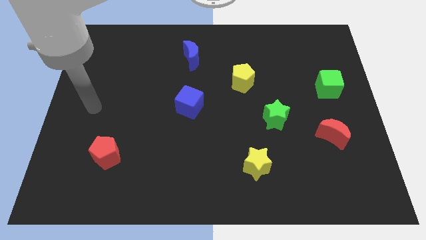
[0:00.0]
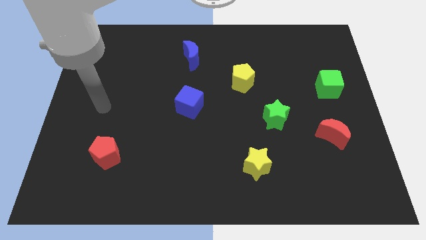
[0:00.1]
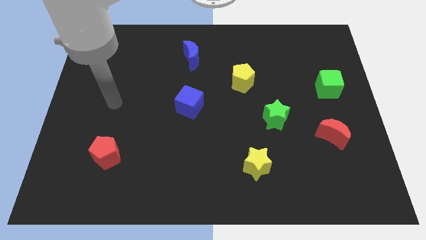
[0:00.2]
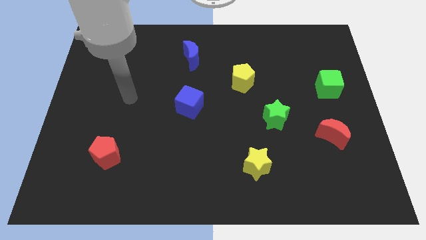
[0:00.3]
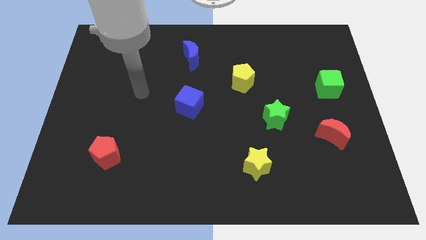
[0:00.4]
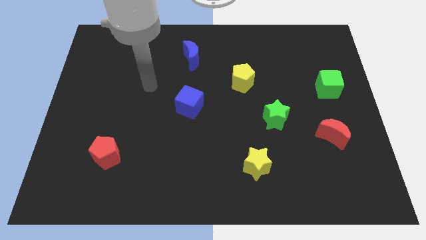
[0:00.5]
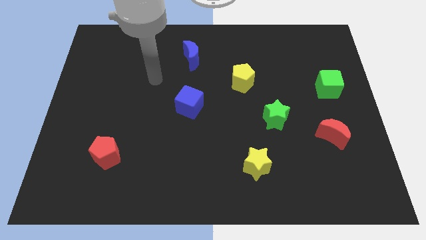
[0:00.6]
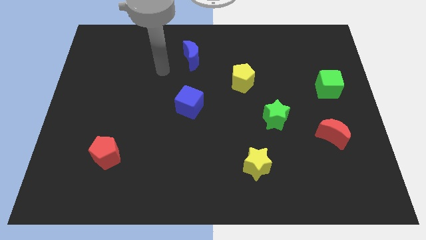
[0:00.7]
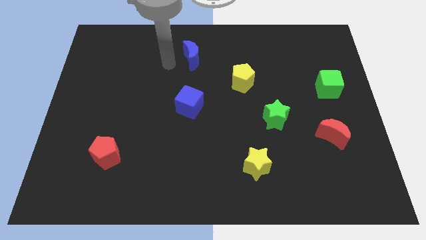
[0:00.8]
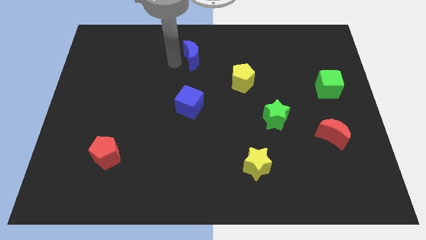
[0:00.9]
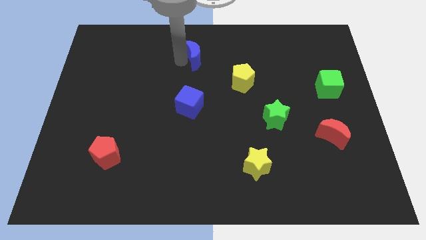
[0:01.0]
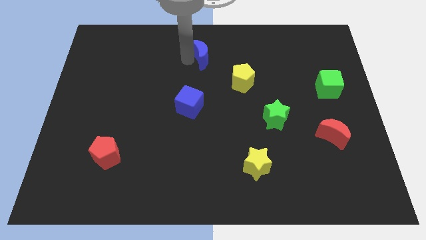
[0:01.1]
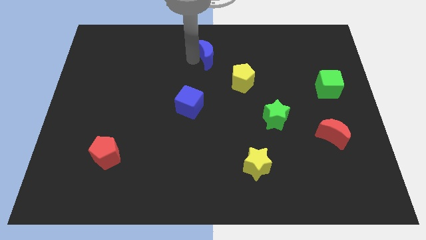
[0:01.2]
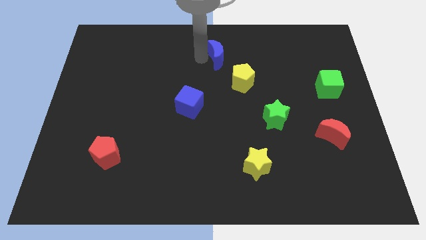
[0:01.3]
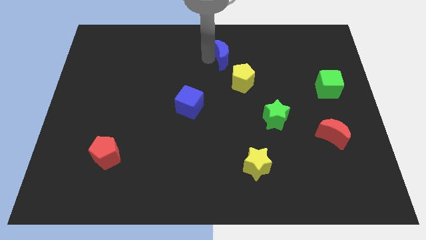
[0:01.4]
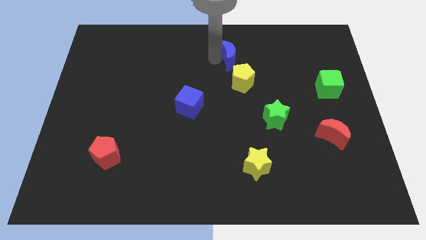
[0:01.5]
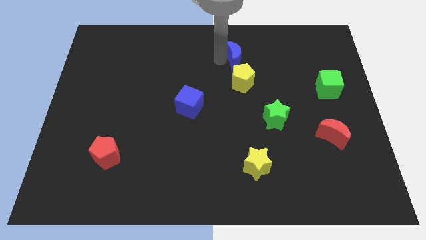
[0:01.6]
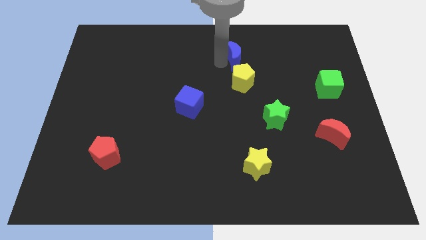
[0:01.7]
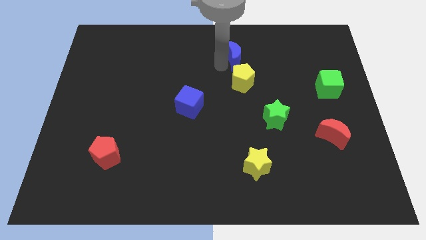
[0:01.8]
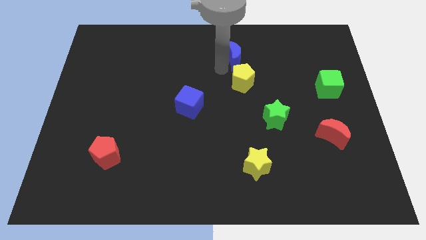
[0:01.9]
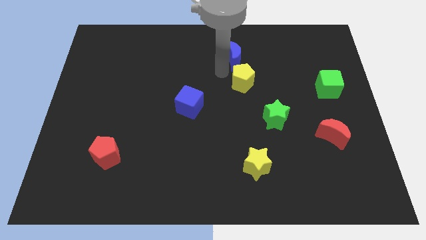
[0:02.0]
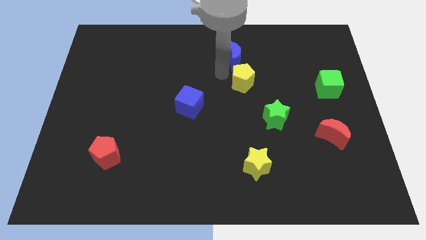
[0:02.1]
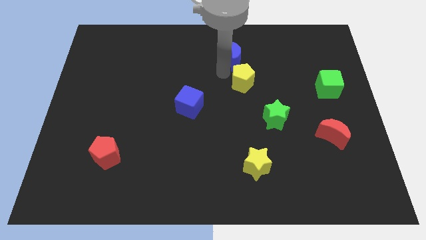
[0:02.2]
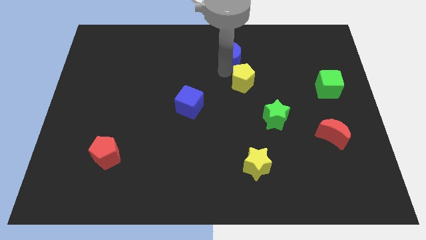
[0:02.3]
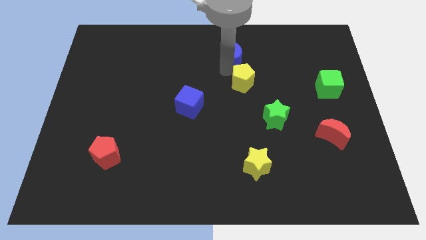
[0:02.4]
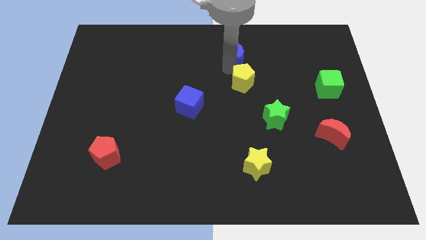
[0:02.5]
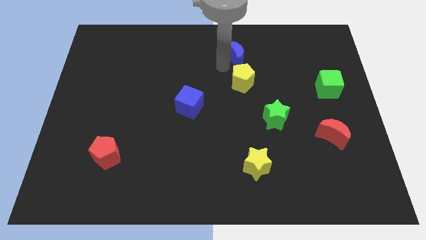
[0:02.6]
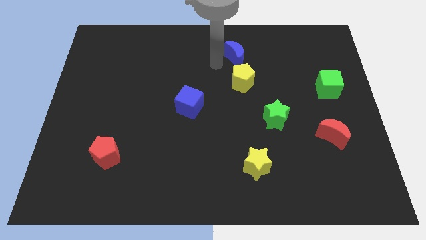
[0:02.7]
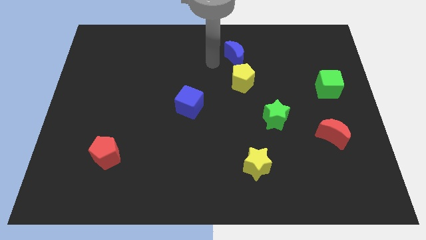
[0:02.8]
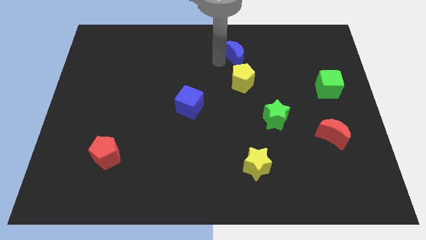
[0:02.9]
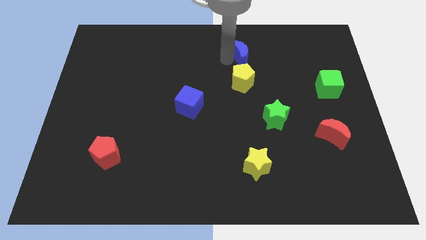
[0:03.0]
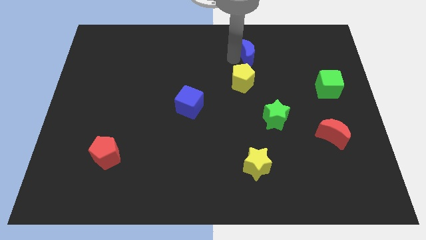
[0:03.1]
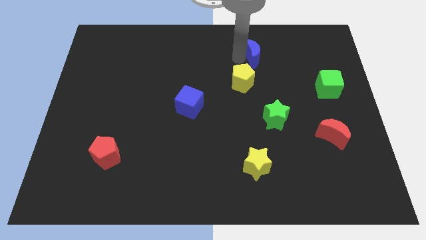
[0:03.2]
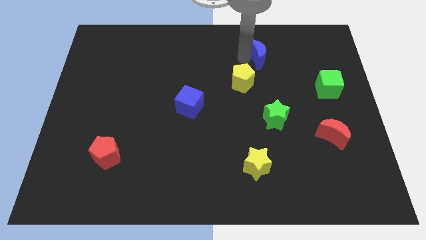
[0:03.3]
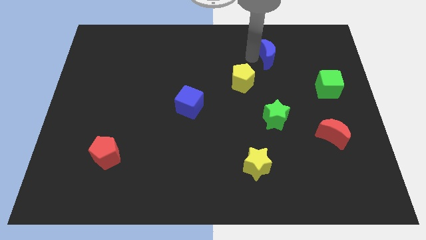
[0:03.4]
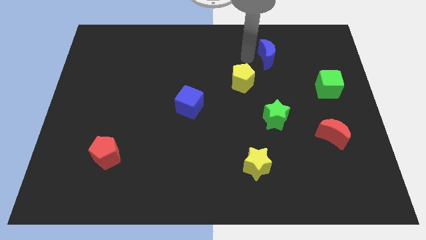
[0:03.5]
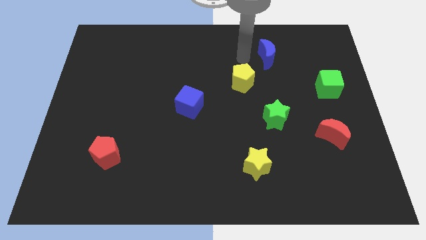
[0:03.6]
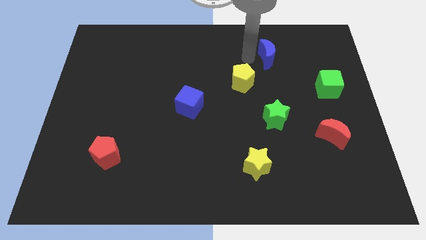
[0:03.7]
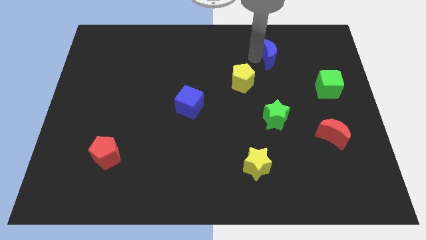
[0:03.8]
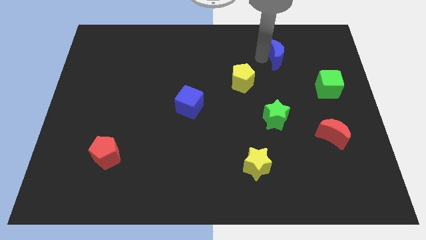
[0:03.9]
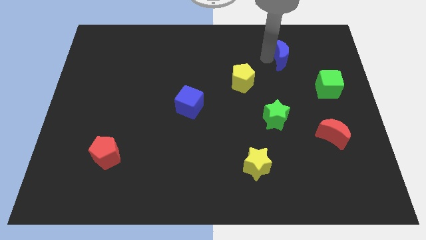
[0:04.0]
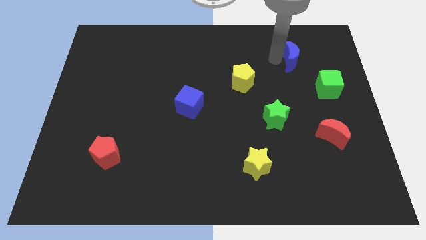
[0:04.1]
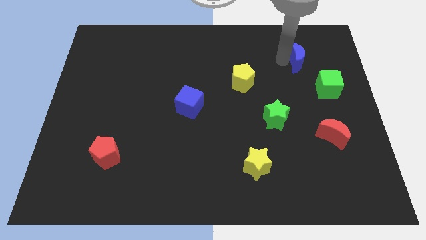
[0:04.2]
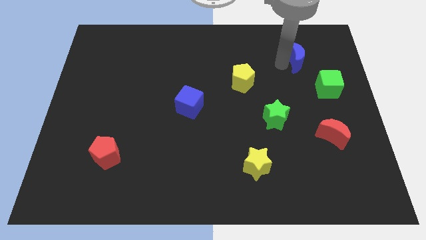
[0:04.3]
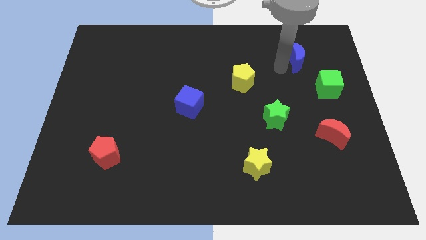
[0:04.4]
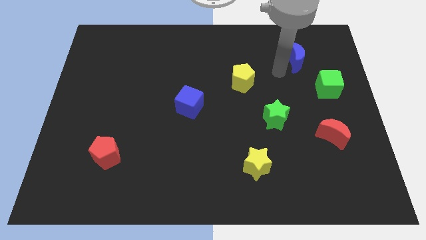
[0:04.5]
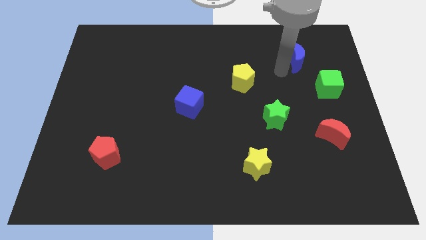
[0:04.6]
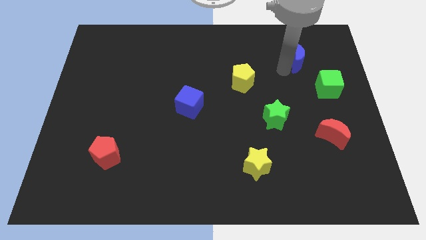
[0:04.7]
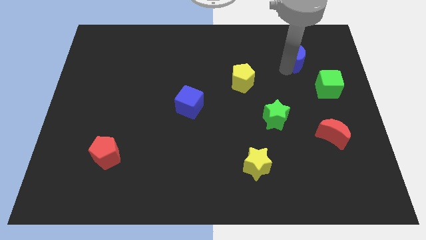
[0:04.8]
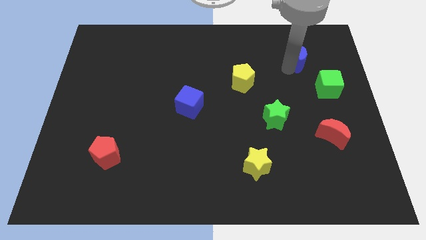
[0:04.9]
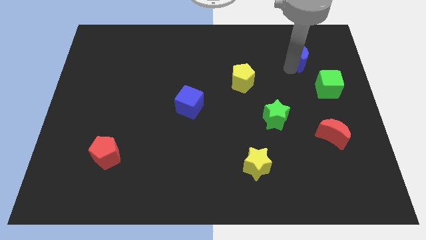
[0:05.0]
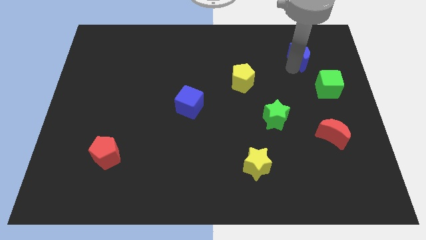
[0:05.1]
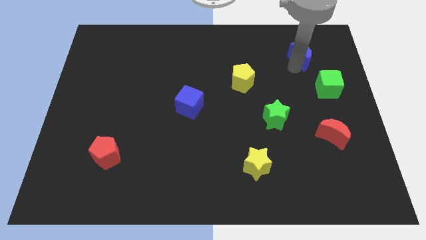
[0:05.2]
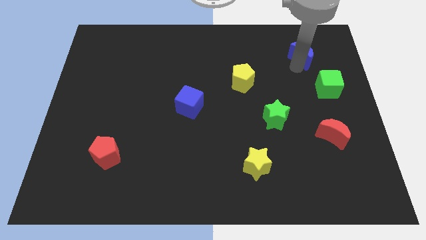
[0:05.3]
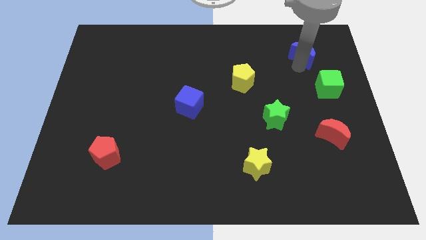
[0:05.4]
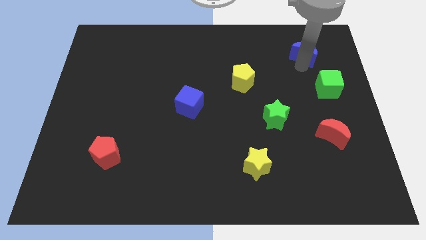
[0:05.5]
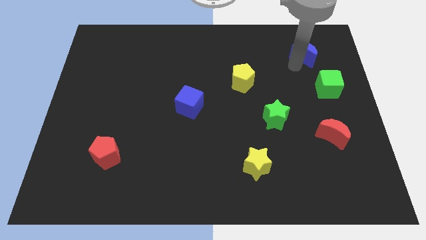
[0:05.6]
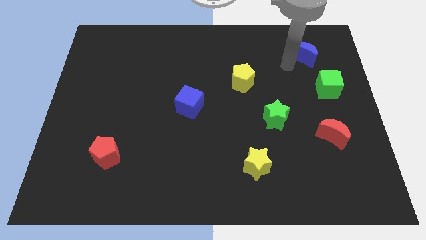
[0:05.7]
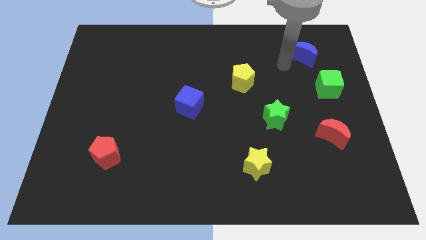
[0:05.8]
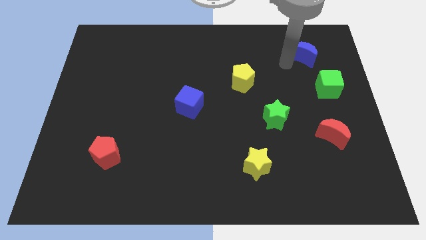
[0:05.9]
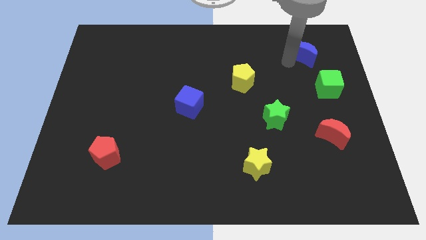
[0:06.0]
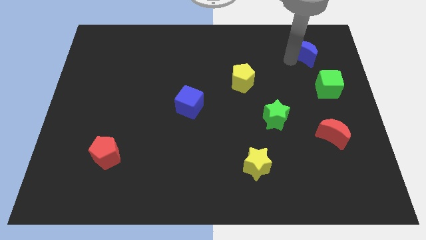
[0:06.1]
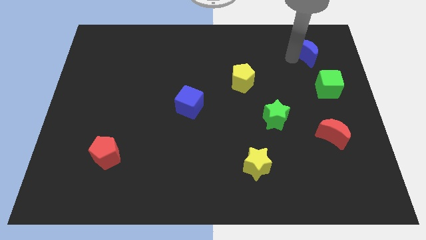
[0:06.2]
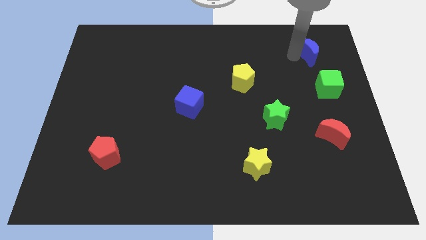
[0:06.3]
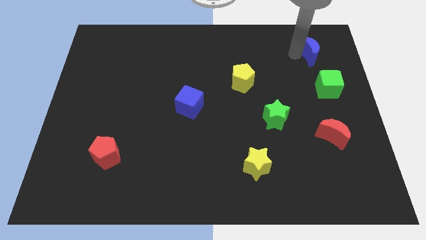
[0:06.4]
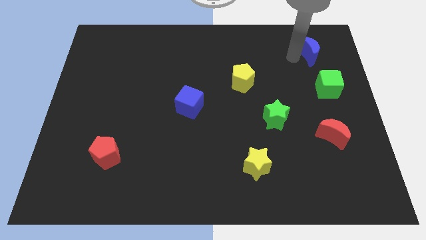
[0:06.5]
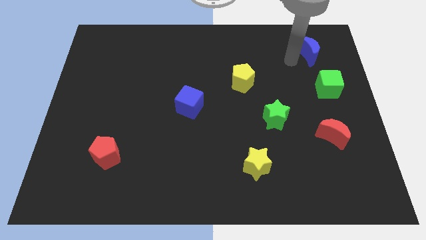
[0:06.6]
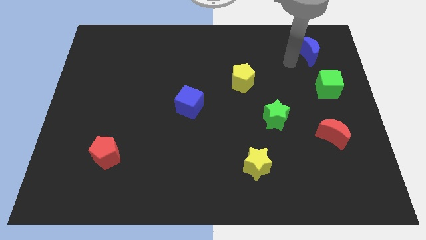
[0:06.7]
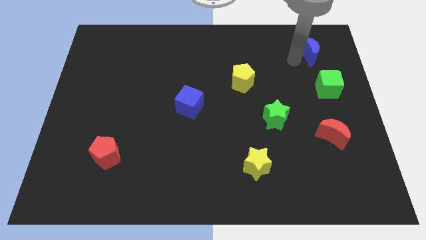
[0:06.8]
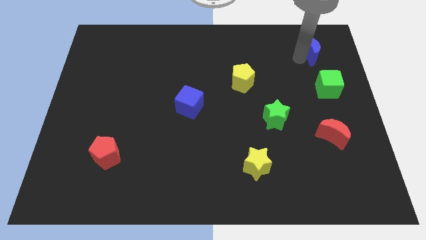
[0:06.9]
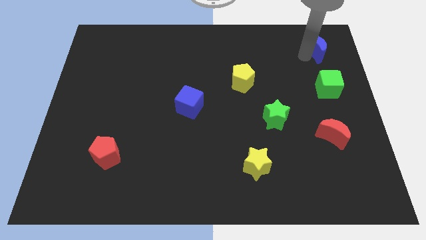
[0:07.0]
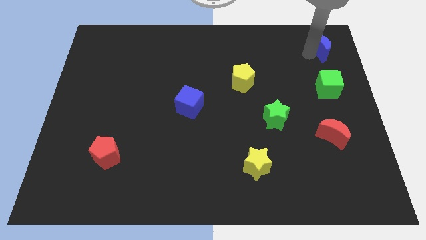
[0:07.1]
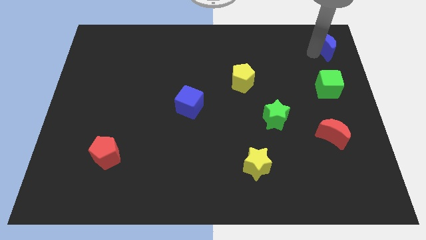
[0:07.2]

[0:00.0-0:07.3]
push the blue moon to the top right
